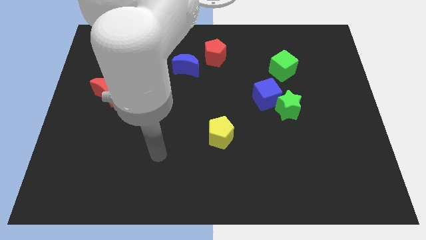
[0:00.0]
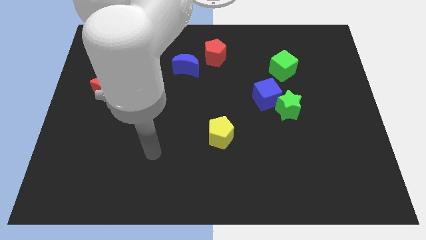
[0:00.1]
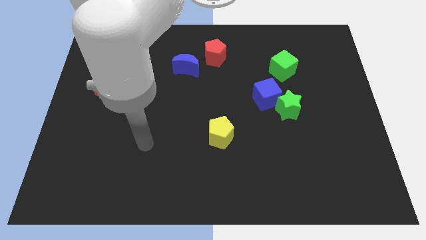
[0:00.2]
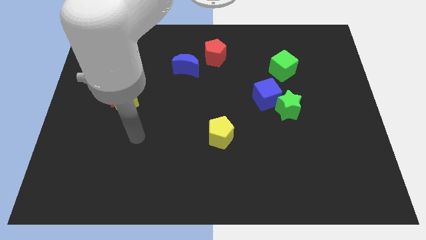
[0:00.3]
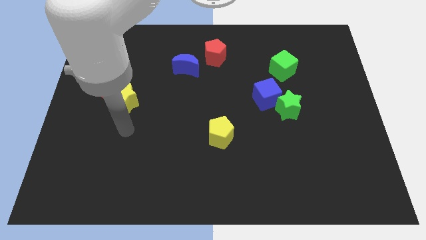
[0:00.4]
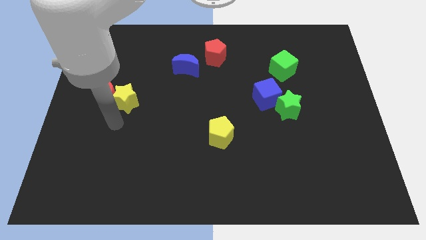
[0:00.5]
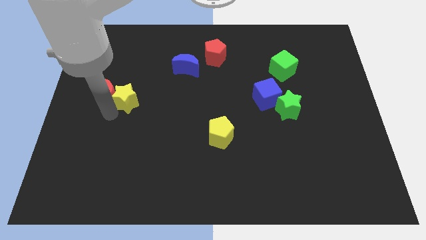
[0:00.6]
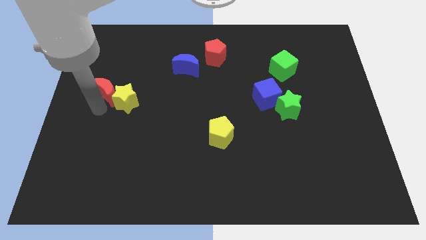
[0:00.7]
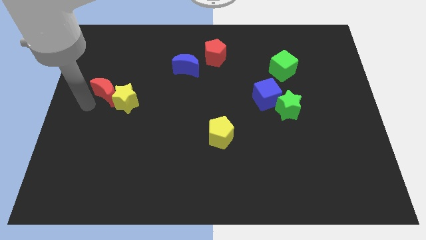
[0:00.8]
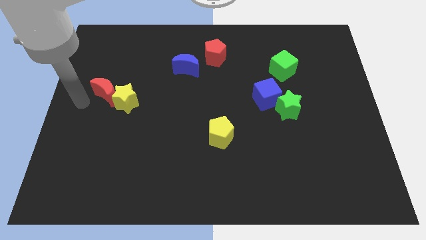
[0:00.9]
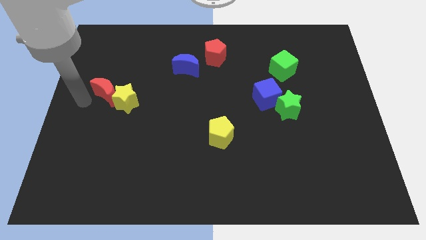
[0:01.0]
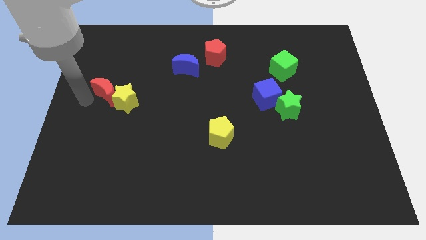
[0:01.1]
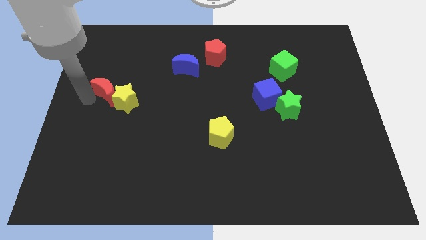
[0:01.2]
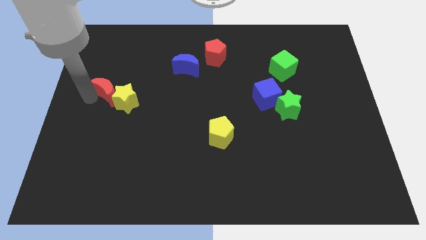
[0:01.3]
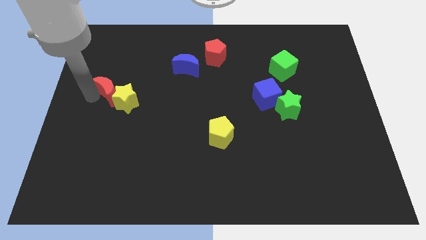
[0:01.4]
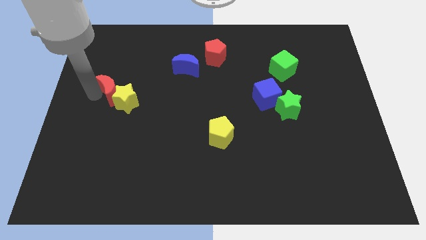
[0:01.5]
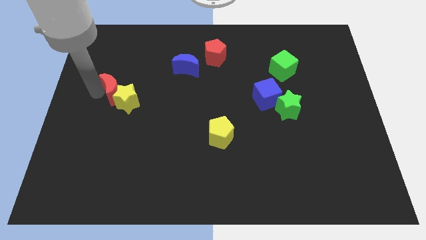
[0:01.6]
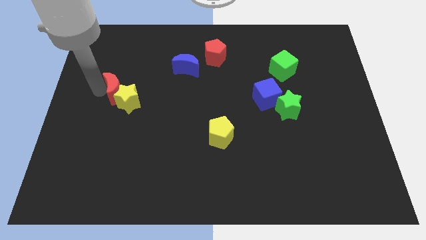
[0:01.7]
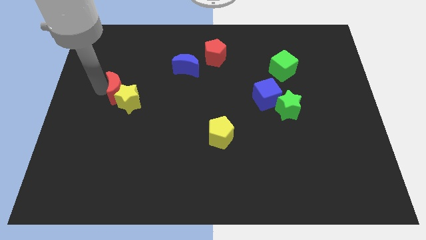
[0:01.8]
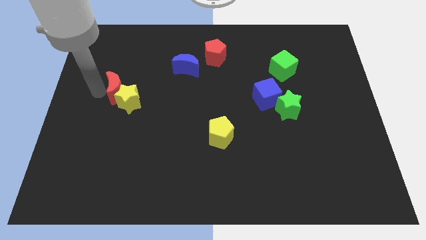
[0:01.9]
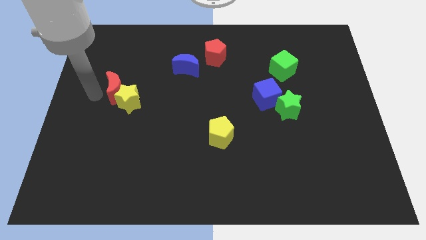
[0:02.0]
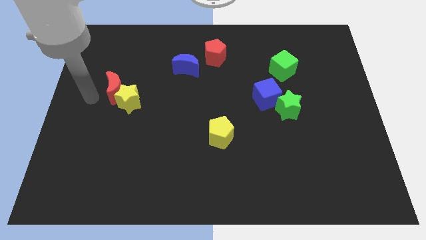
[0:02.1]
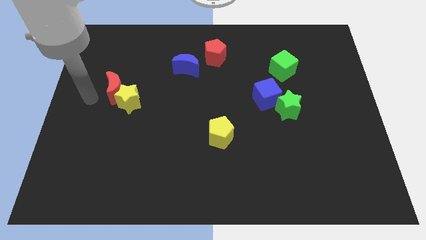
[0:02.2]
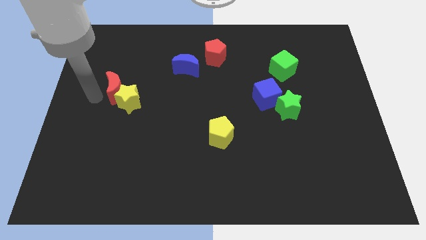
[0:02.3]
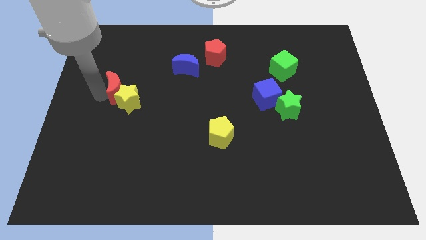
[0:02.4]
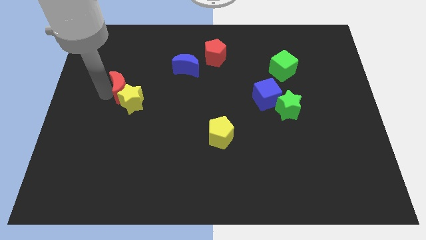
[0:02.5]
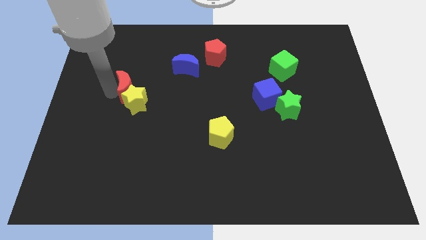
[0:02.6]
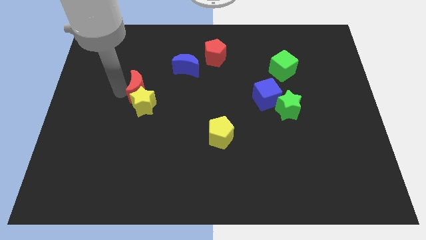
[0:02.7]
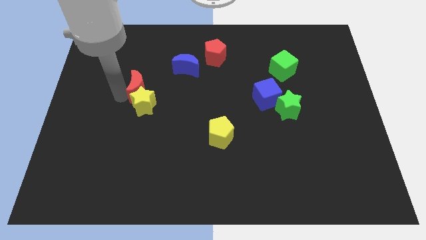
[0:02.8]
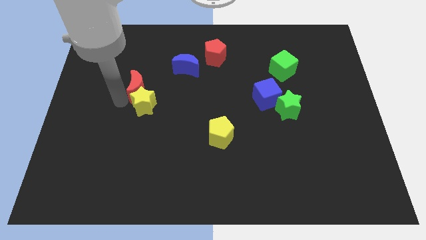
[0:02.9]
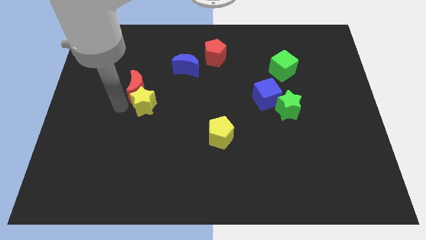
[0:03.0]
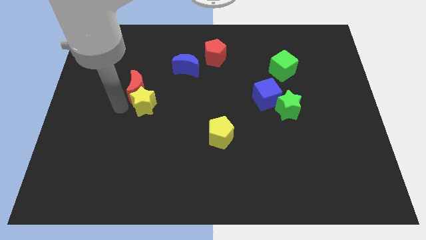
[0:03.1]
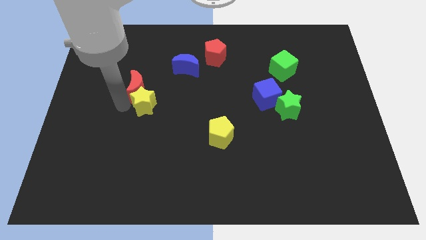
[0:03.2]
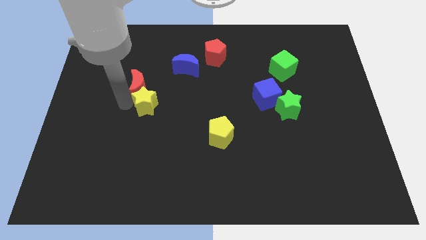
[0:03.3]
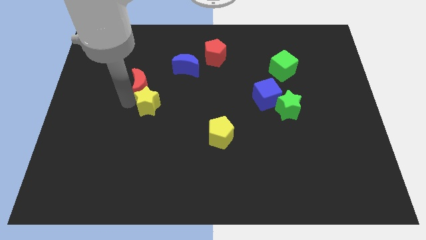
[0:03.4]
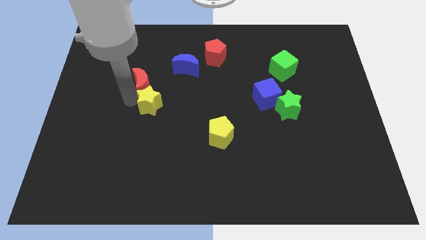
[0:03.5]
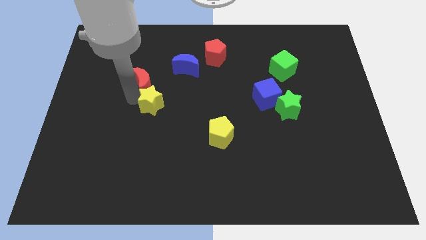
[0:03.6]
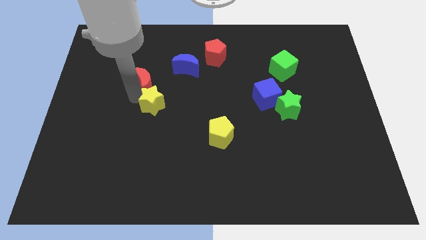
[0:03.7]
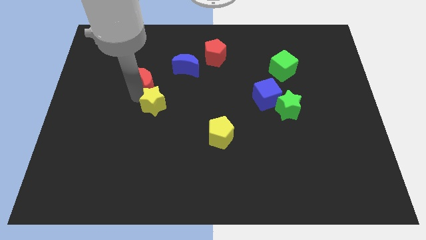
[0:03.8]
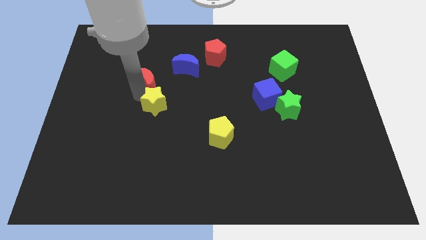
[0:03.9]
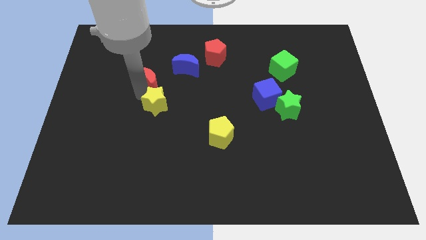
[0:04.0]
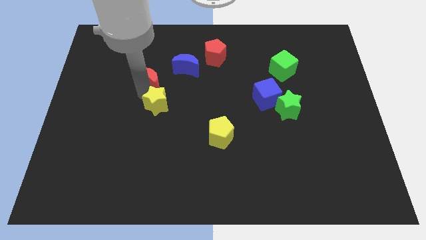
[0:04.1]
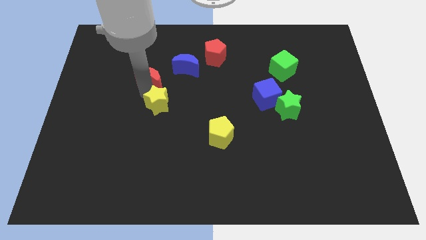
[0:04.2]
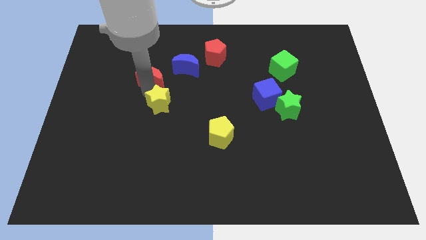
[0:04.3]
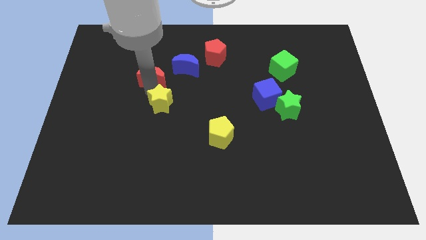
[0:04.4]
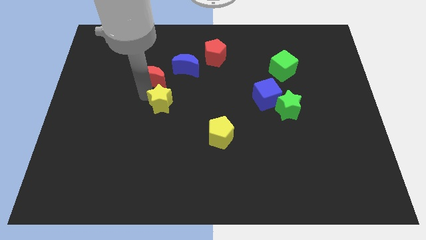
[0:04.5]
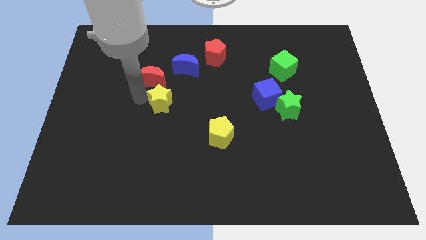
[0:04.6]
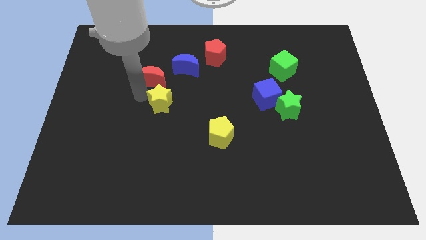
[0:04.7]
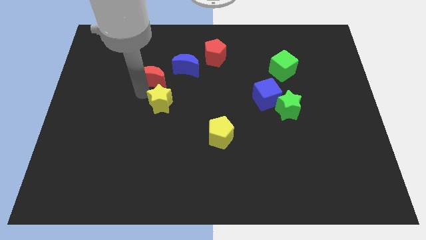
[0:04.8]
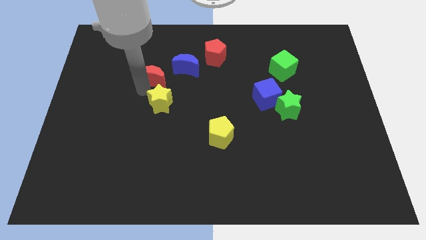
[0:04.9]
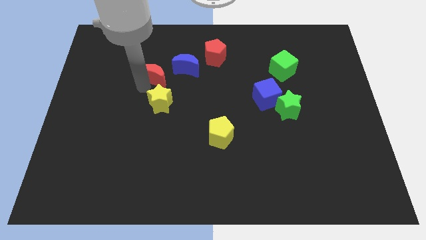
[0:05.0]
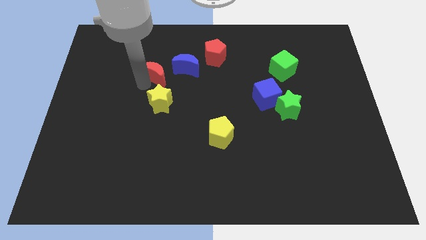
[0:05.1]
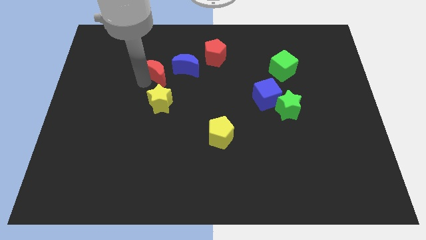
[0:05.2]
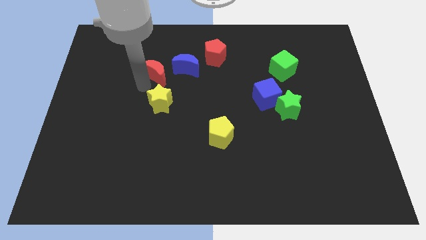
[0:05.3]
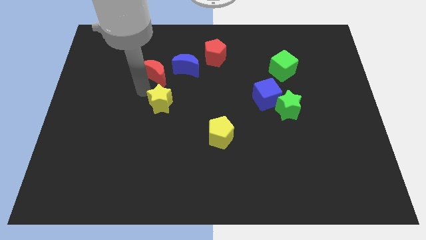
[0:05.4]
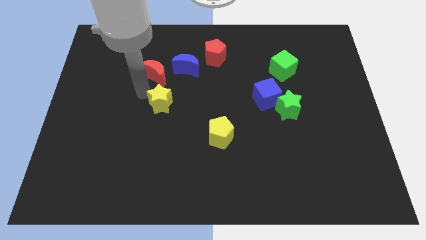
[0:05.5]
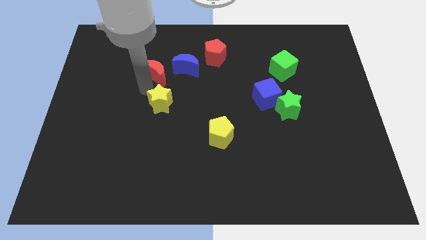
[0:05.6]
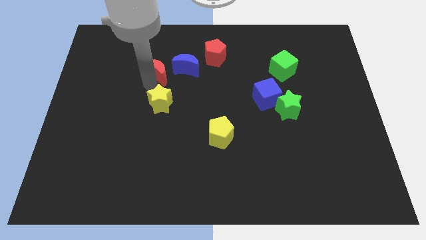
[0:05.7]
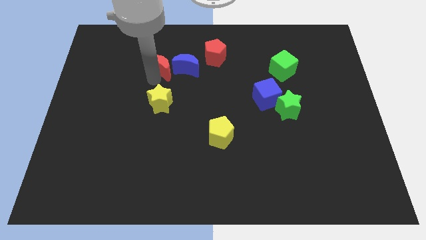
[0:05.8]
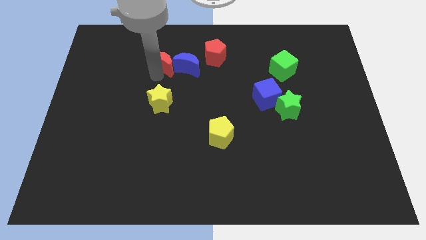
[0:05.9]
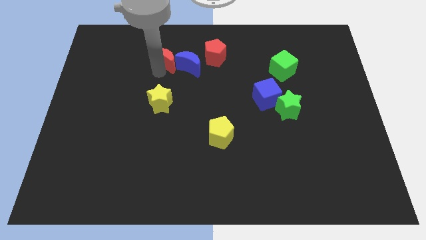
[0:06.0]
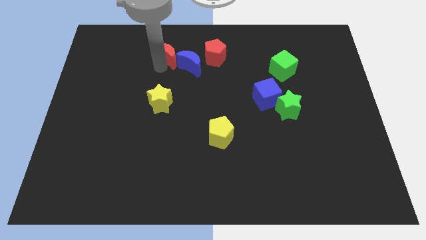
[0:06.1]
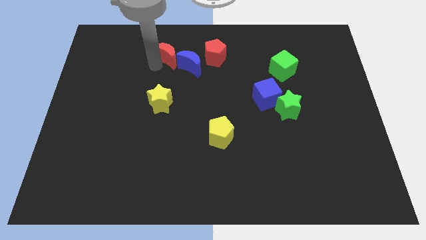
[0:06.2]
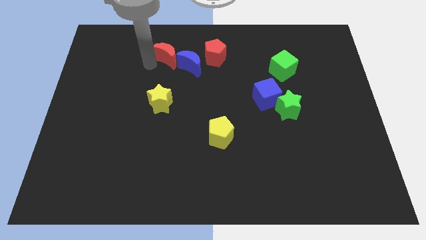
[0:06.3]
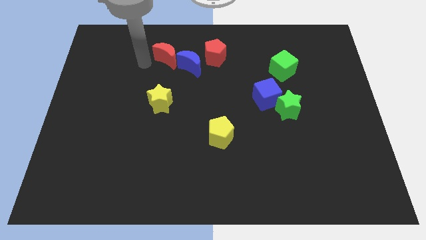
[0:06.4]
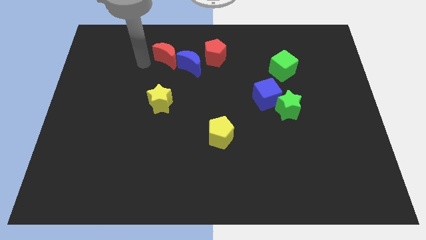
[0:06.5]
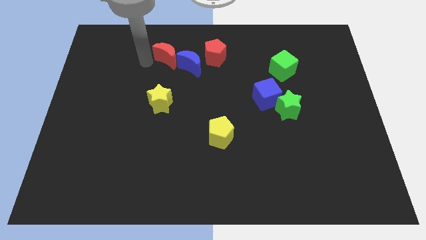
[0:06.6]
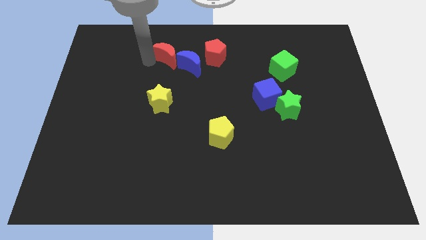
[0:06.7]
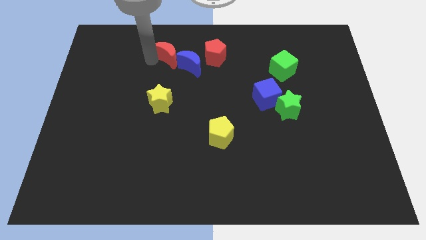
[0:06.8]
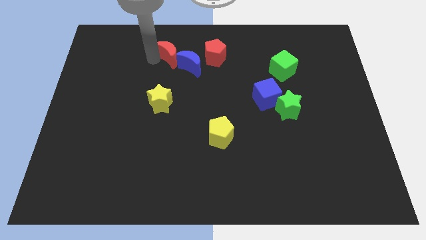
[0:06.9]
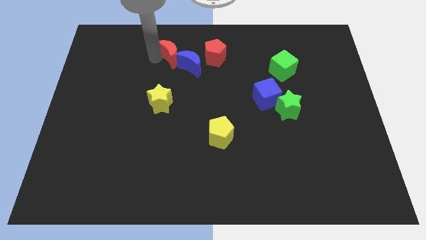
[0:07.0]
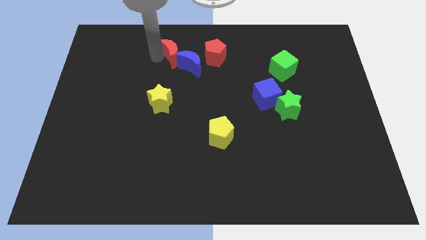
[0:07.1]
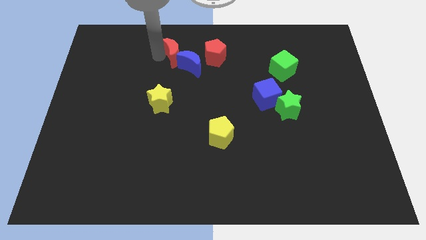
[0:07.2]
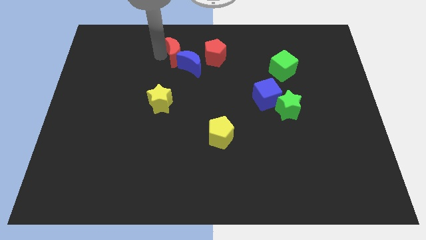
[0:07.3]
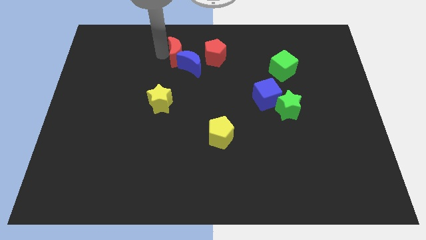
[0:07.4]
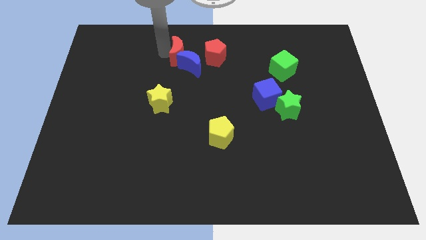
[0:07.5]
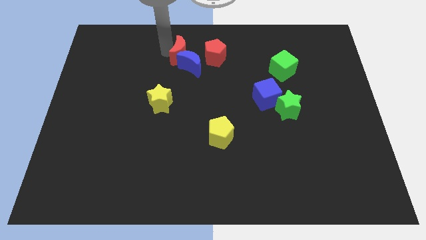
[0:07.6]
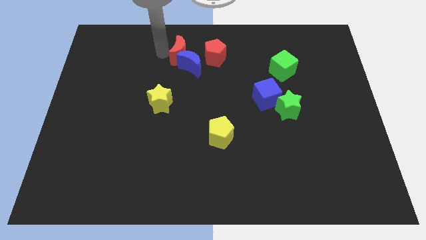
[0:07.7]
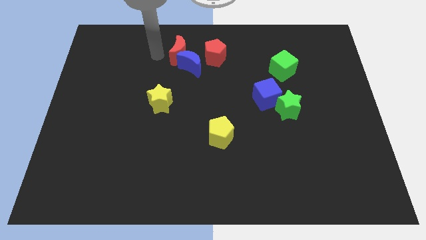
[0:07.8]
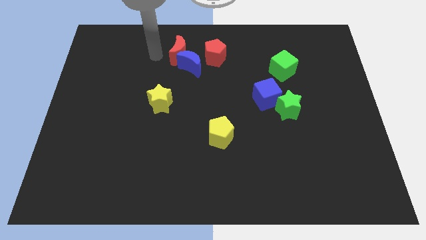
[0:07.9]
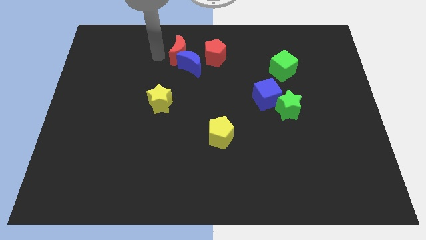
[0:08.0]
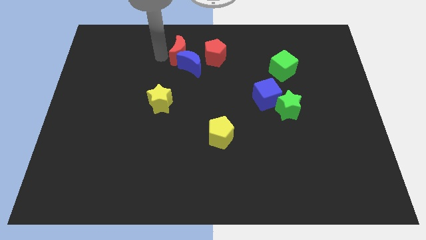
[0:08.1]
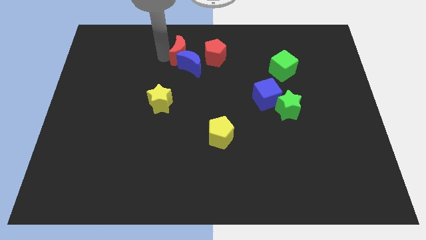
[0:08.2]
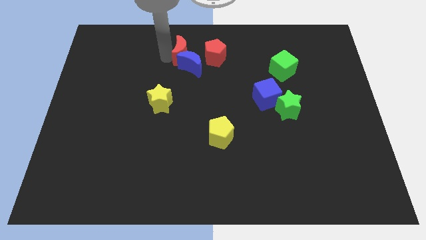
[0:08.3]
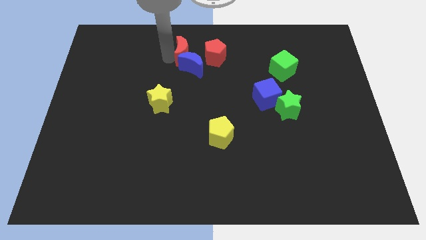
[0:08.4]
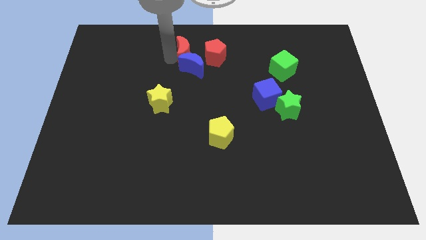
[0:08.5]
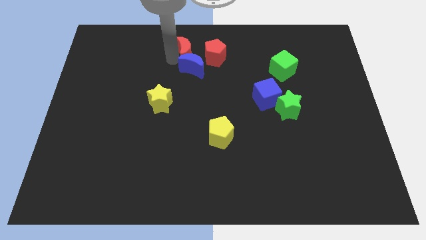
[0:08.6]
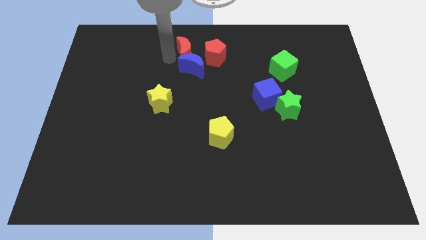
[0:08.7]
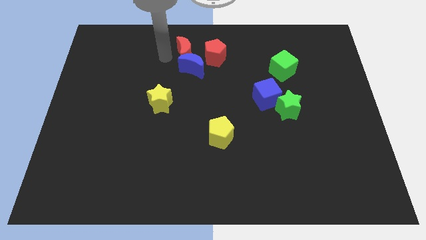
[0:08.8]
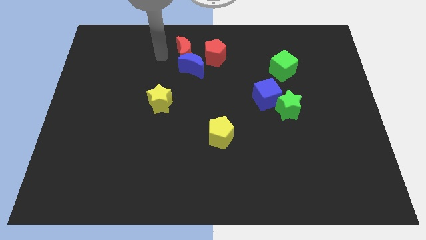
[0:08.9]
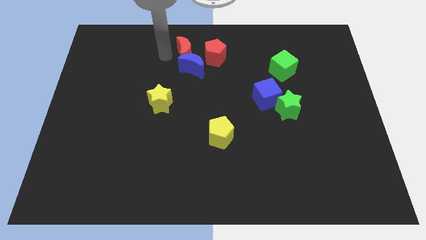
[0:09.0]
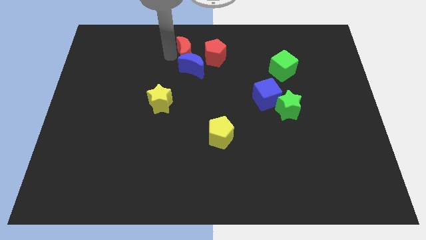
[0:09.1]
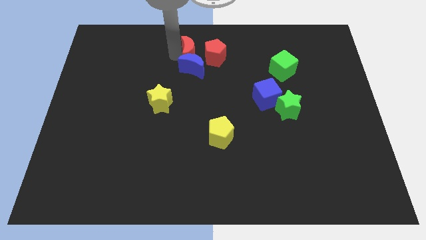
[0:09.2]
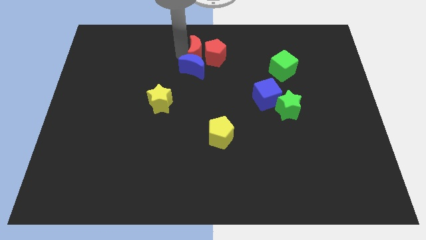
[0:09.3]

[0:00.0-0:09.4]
move the red moon next to the red pentagon
